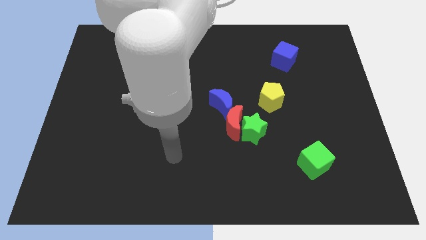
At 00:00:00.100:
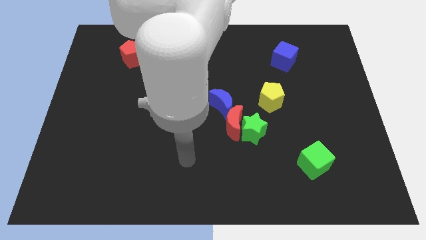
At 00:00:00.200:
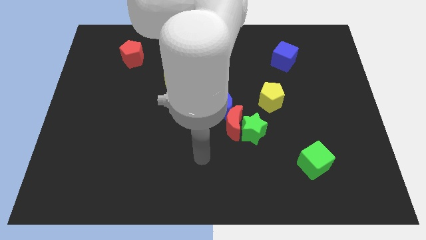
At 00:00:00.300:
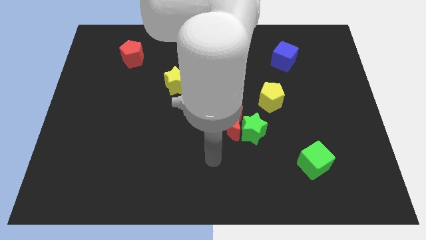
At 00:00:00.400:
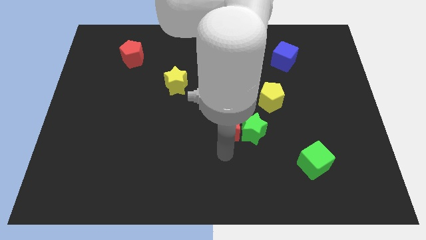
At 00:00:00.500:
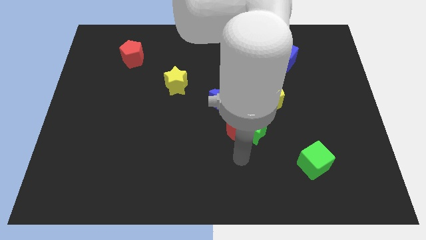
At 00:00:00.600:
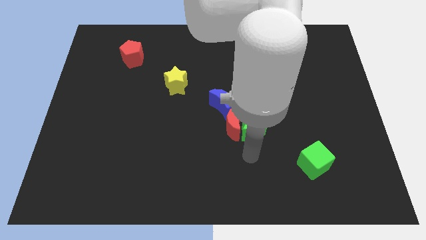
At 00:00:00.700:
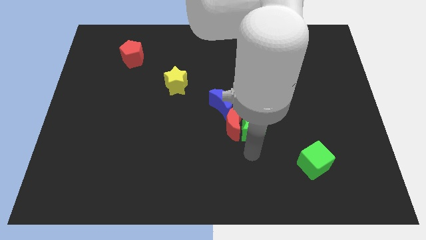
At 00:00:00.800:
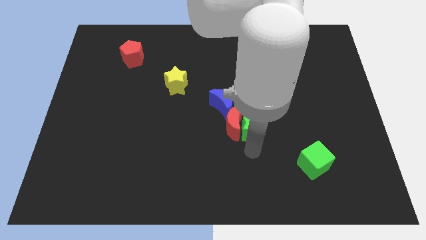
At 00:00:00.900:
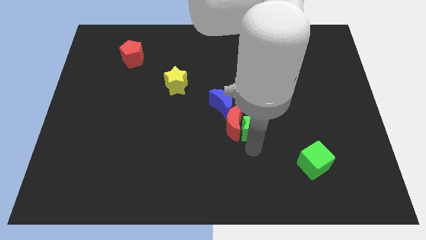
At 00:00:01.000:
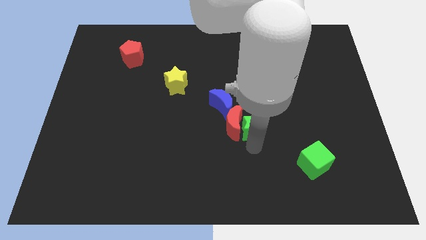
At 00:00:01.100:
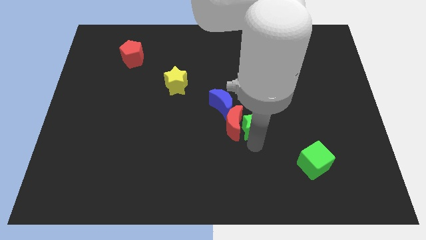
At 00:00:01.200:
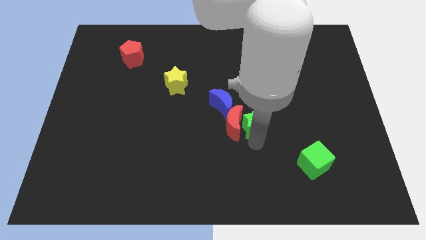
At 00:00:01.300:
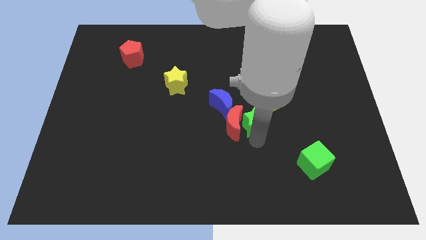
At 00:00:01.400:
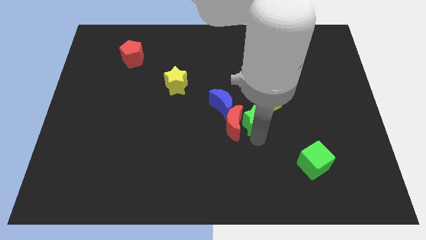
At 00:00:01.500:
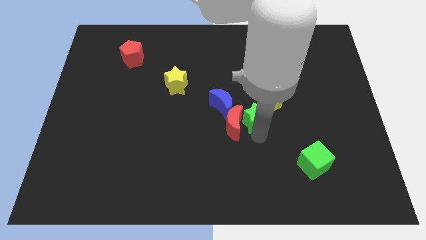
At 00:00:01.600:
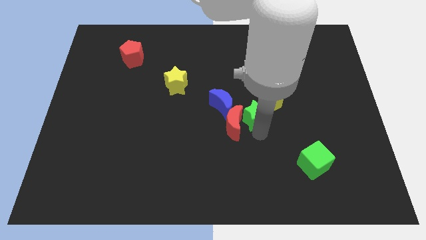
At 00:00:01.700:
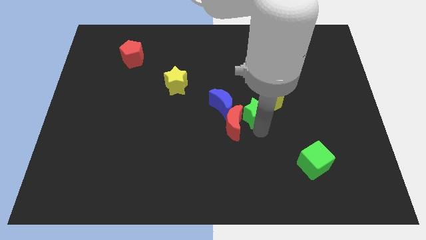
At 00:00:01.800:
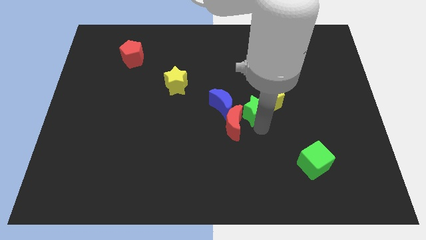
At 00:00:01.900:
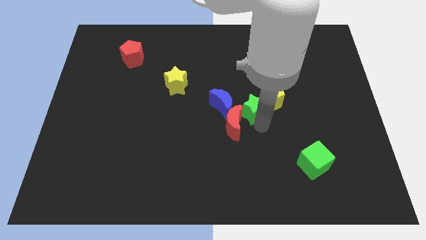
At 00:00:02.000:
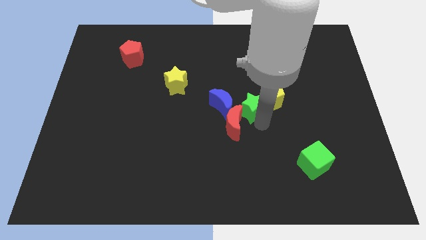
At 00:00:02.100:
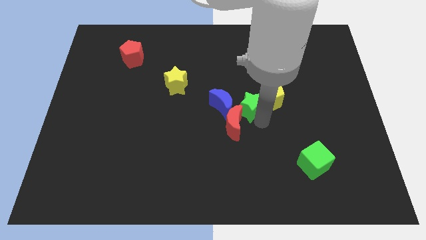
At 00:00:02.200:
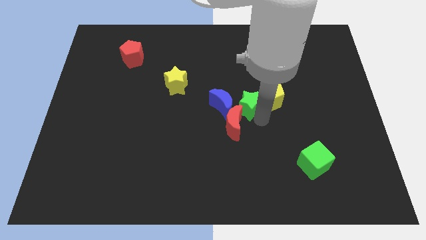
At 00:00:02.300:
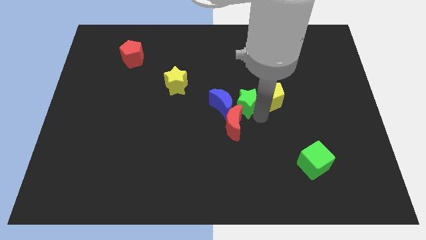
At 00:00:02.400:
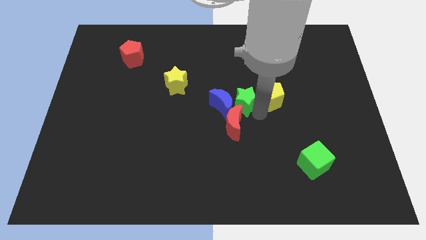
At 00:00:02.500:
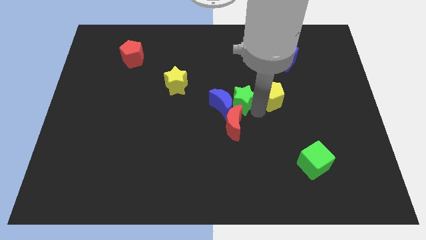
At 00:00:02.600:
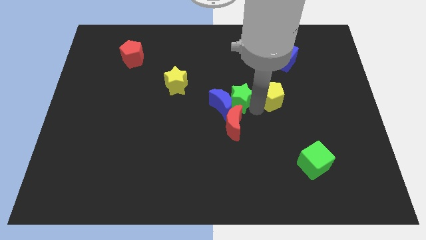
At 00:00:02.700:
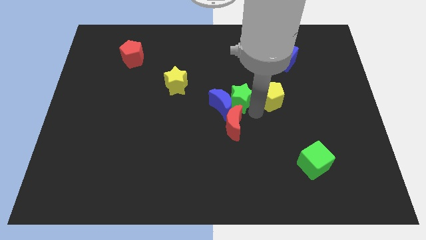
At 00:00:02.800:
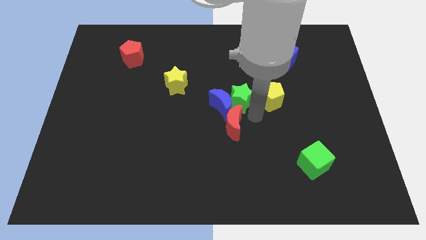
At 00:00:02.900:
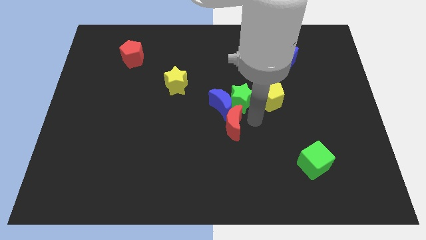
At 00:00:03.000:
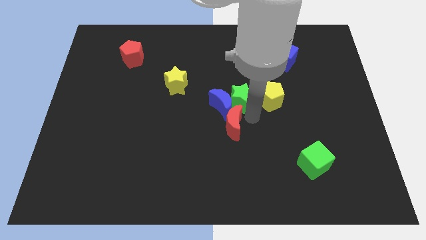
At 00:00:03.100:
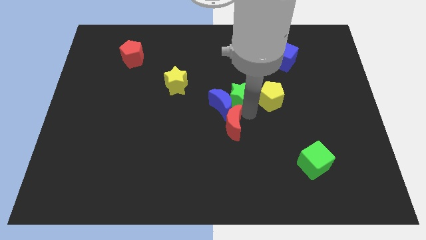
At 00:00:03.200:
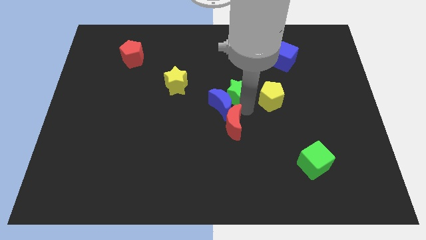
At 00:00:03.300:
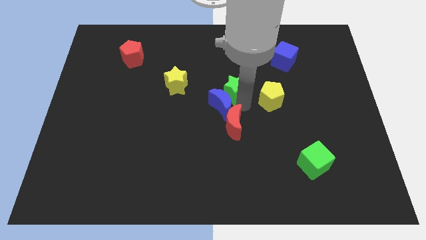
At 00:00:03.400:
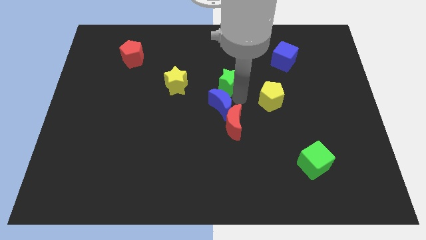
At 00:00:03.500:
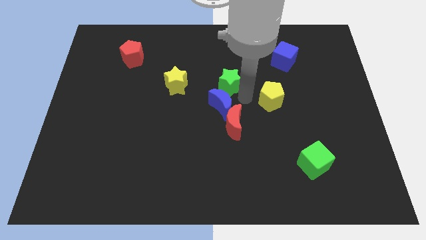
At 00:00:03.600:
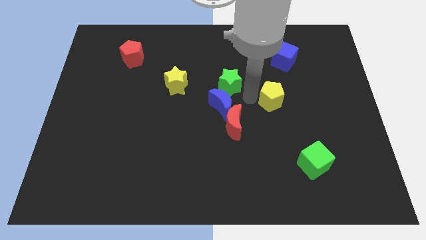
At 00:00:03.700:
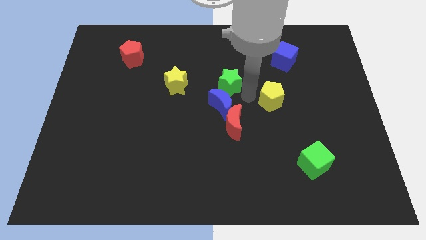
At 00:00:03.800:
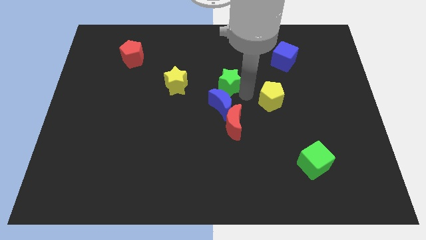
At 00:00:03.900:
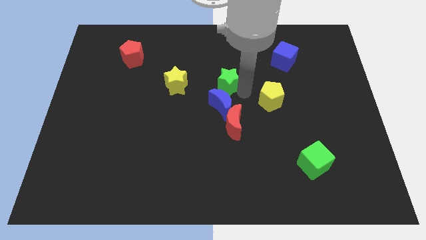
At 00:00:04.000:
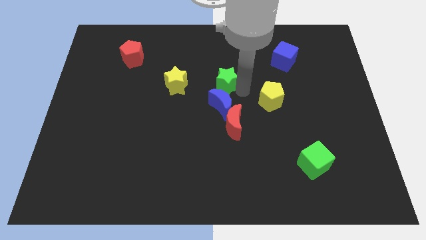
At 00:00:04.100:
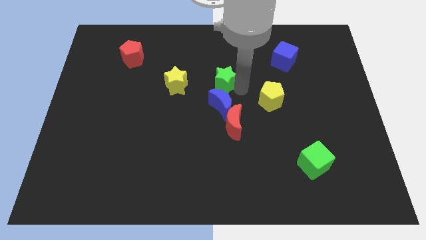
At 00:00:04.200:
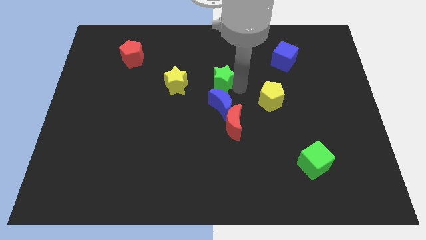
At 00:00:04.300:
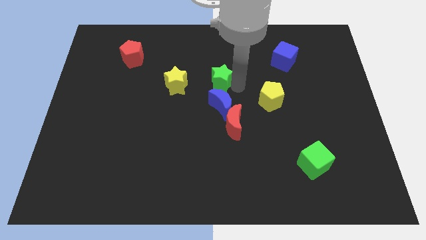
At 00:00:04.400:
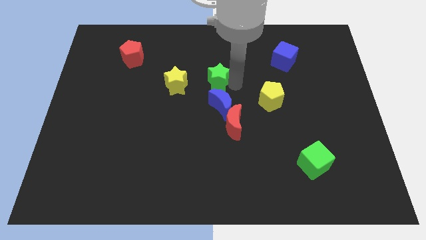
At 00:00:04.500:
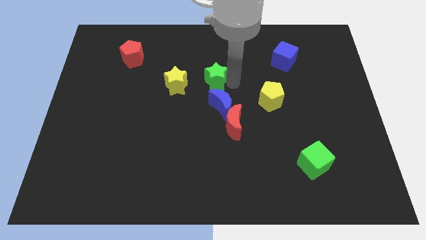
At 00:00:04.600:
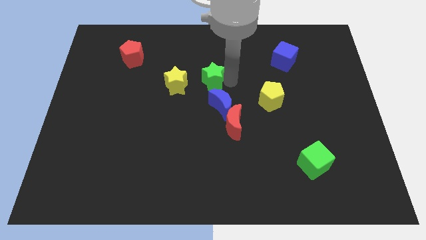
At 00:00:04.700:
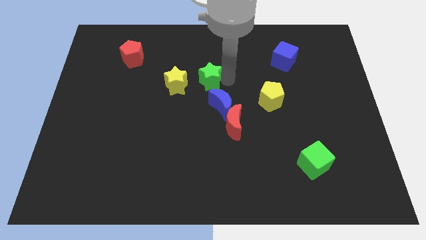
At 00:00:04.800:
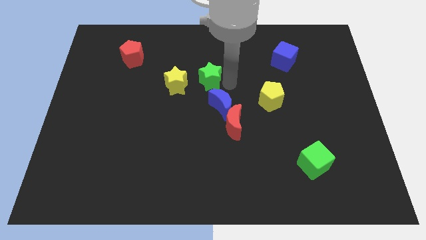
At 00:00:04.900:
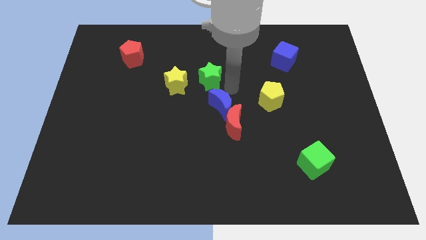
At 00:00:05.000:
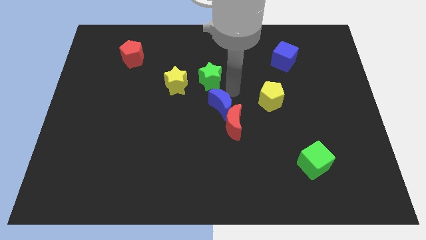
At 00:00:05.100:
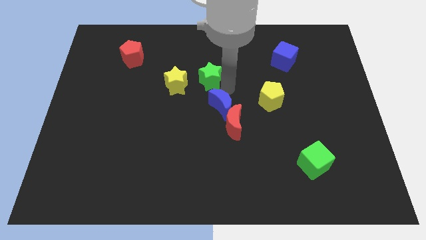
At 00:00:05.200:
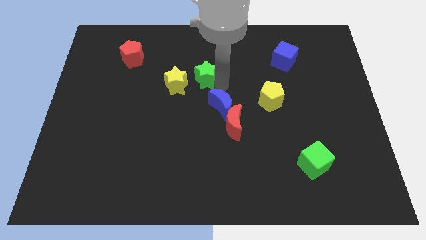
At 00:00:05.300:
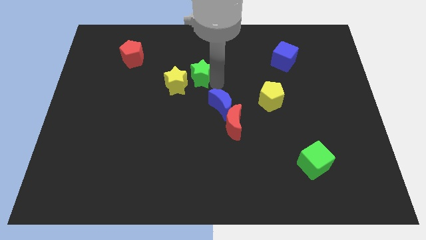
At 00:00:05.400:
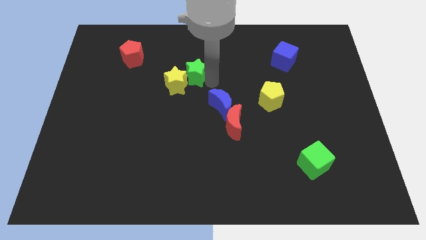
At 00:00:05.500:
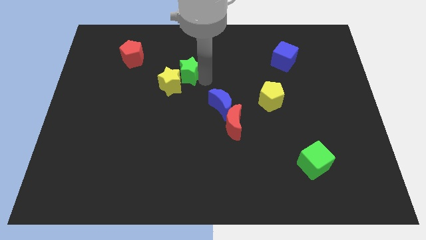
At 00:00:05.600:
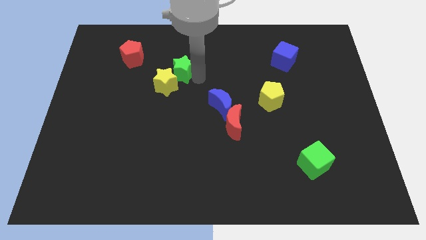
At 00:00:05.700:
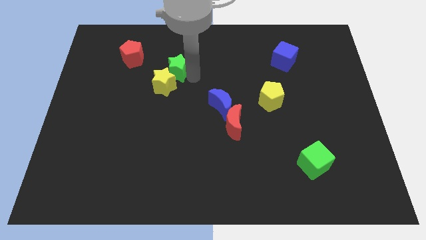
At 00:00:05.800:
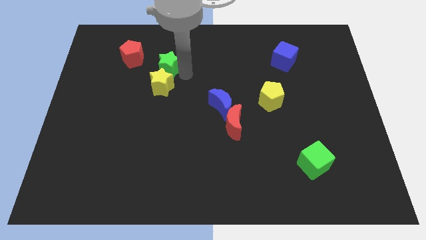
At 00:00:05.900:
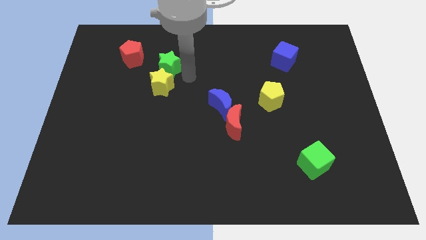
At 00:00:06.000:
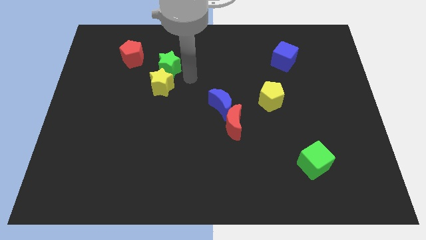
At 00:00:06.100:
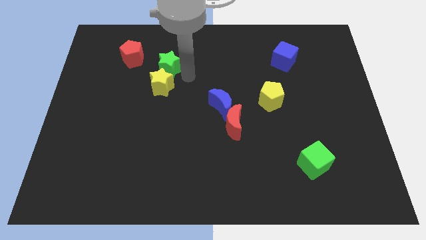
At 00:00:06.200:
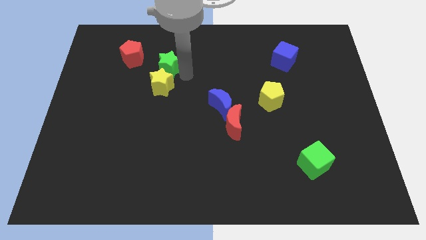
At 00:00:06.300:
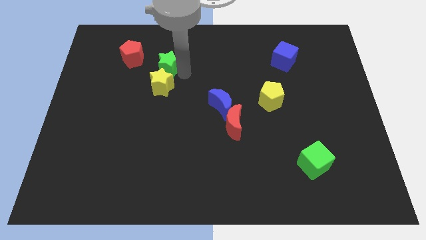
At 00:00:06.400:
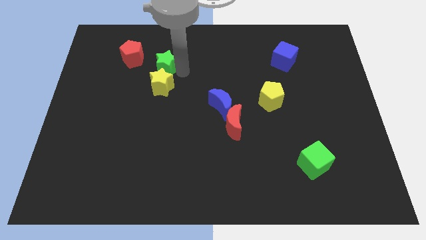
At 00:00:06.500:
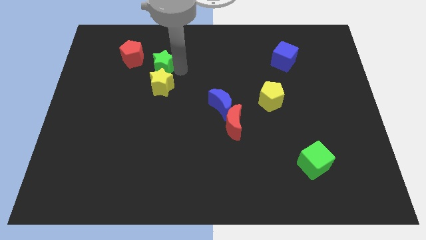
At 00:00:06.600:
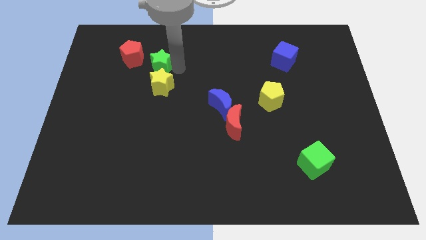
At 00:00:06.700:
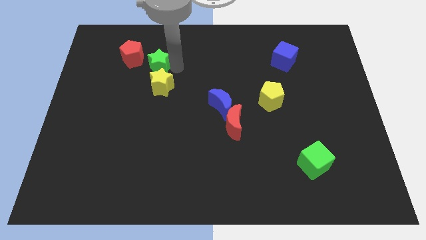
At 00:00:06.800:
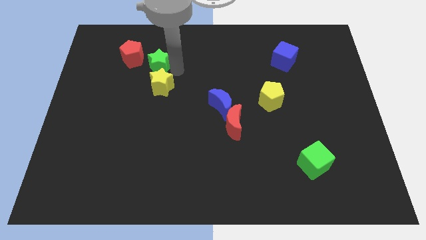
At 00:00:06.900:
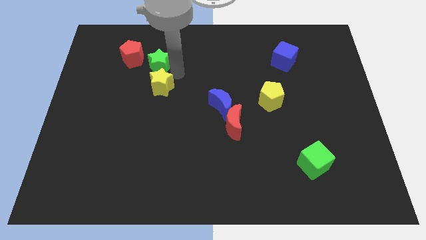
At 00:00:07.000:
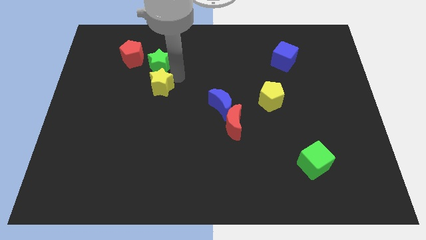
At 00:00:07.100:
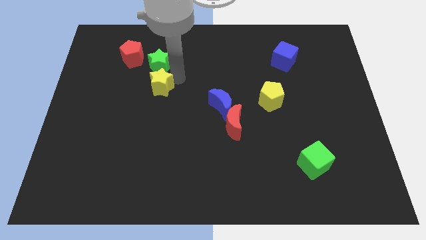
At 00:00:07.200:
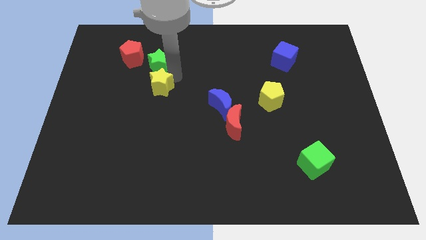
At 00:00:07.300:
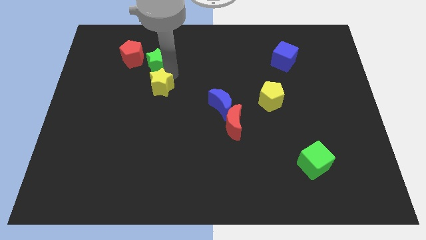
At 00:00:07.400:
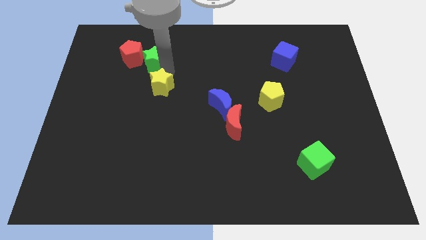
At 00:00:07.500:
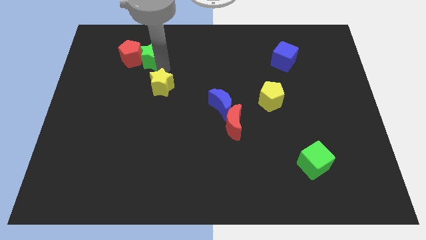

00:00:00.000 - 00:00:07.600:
slide the green star towards the red pentagon
